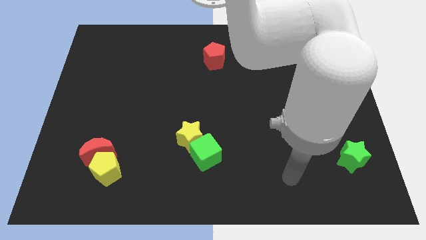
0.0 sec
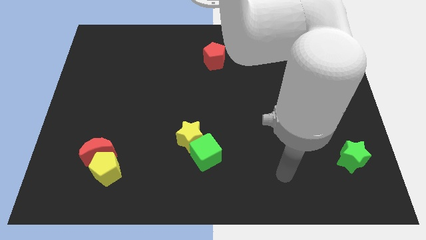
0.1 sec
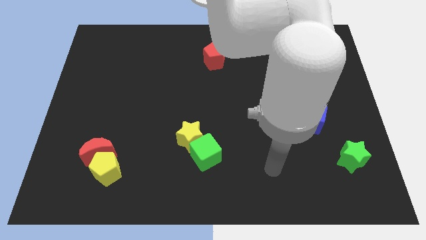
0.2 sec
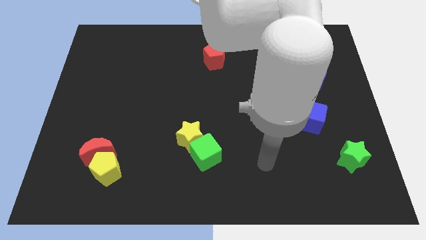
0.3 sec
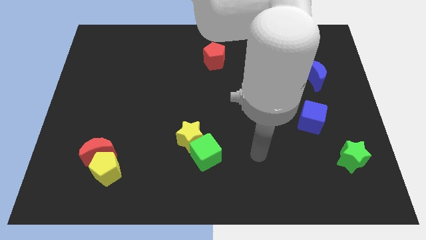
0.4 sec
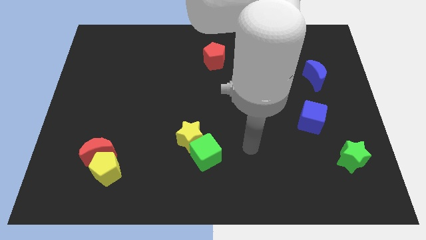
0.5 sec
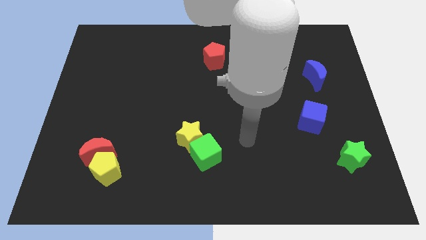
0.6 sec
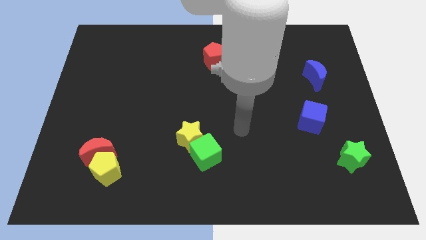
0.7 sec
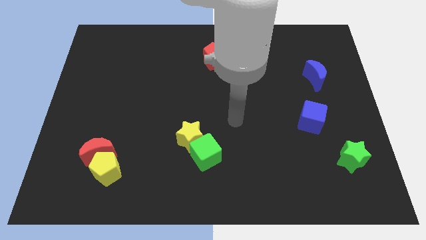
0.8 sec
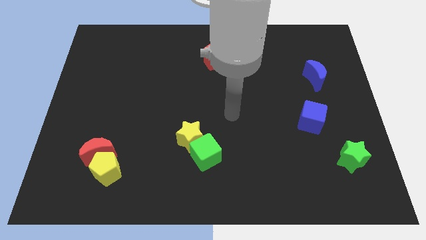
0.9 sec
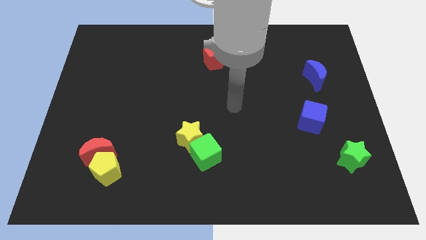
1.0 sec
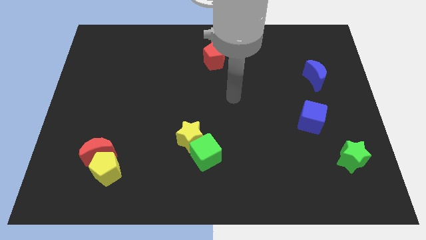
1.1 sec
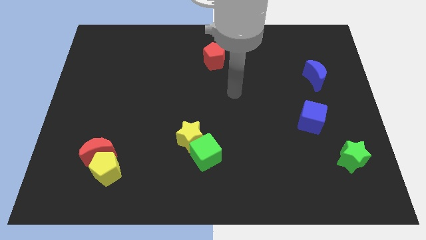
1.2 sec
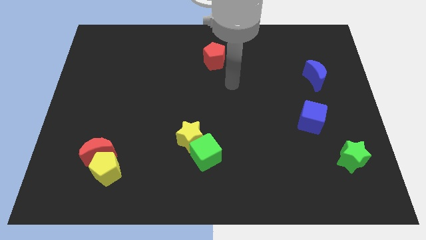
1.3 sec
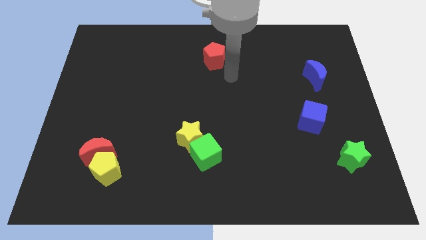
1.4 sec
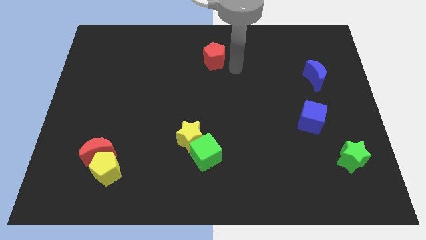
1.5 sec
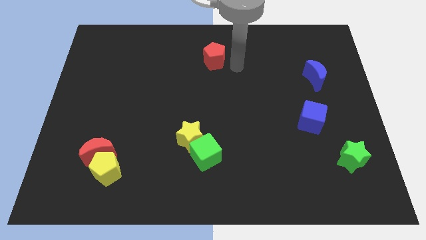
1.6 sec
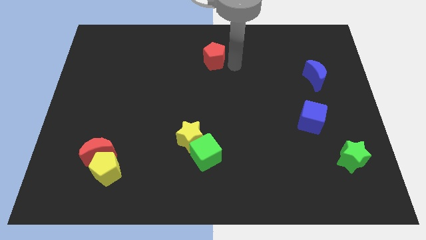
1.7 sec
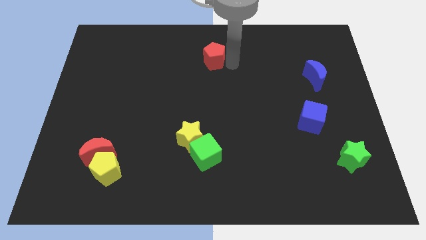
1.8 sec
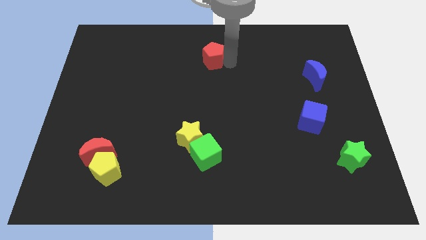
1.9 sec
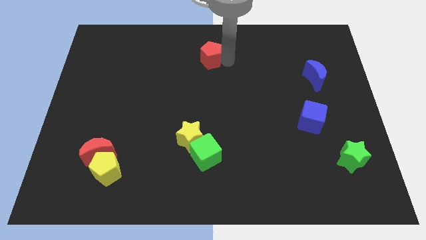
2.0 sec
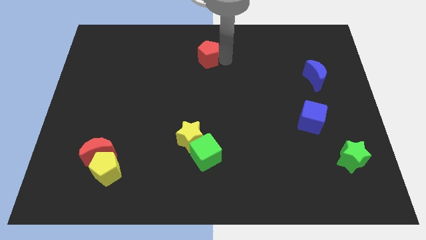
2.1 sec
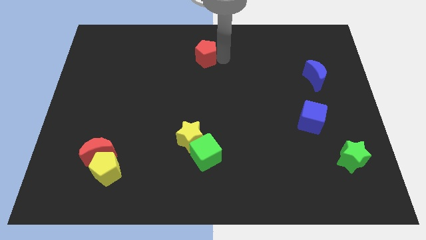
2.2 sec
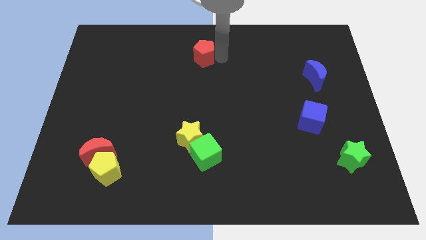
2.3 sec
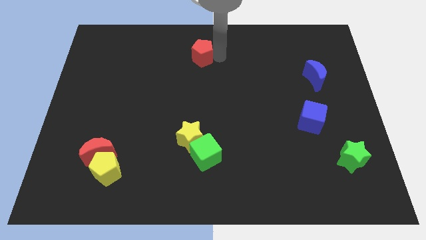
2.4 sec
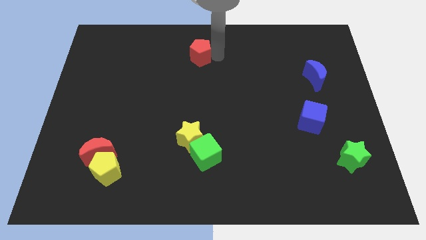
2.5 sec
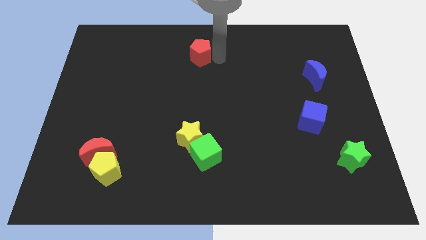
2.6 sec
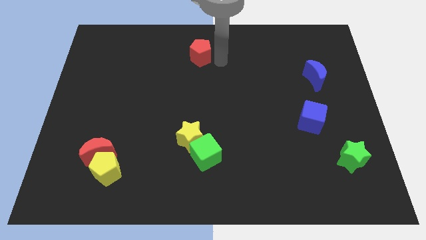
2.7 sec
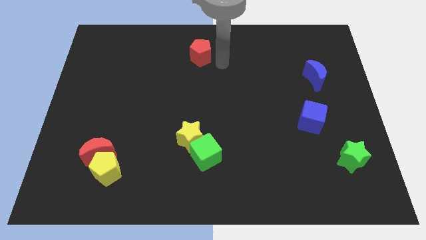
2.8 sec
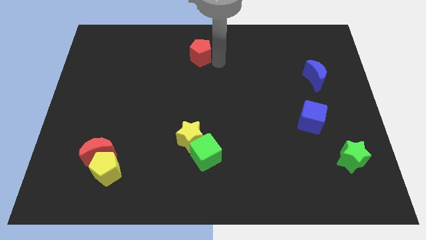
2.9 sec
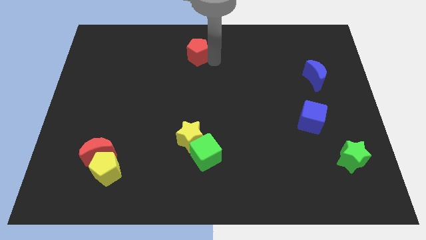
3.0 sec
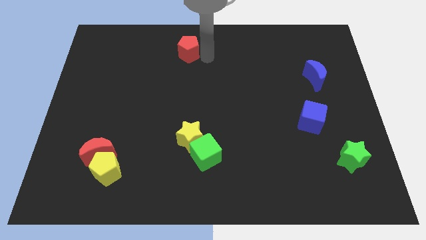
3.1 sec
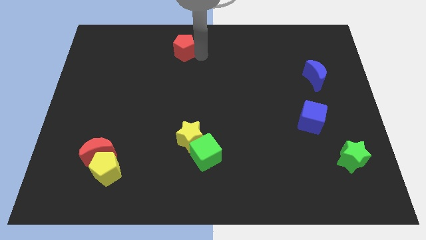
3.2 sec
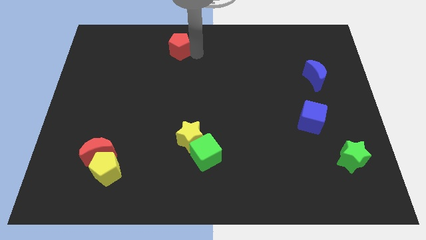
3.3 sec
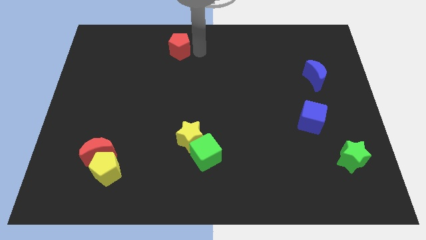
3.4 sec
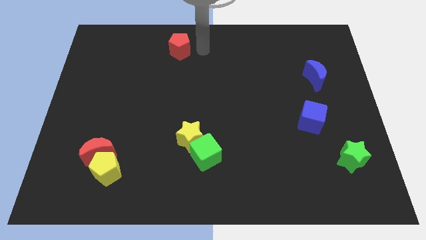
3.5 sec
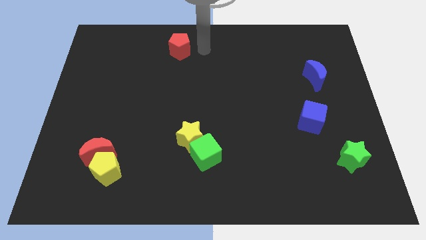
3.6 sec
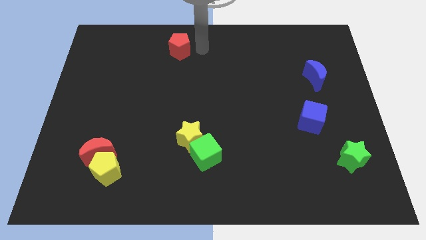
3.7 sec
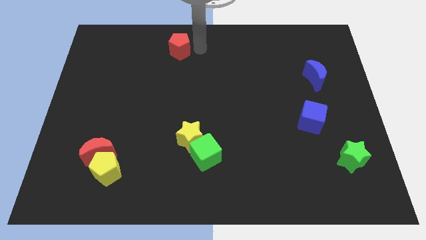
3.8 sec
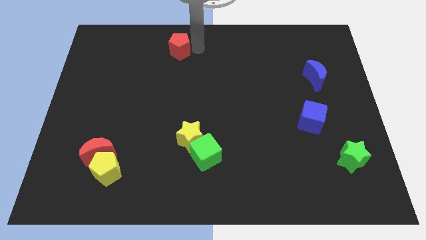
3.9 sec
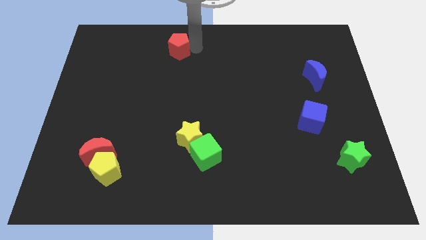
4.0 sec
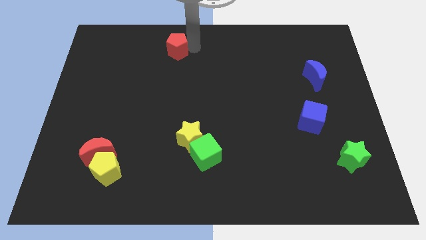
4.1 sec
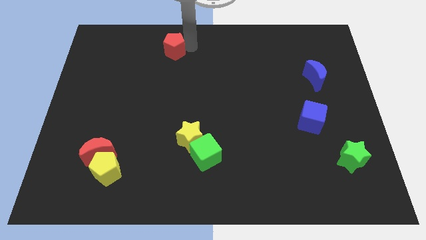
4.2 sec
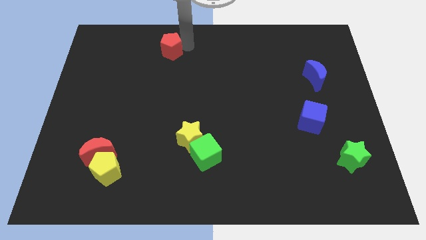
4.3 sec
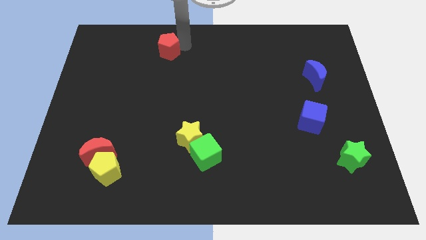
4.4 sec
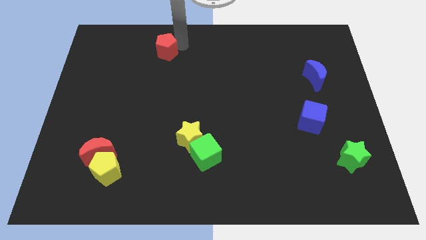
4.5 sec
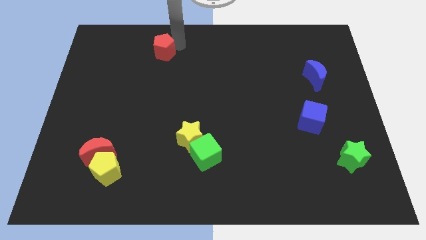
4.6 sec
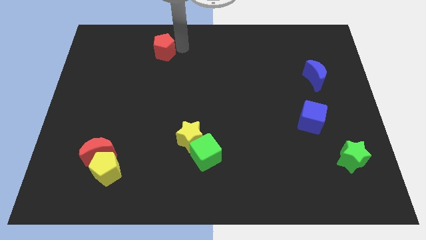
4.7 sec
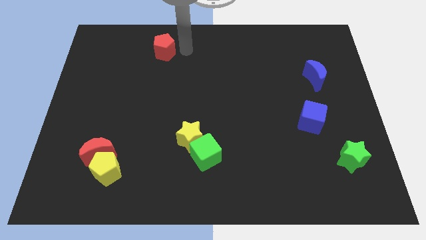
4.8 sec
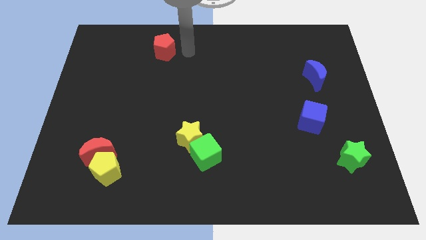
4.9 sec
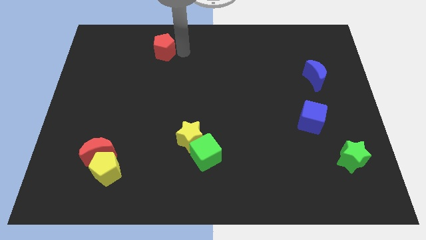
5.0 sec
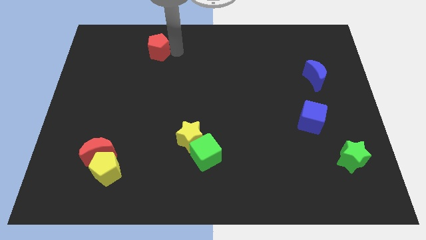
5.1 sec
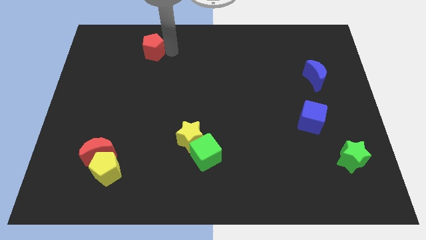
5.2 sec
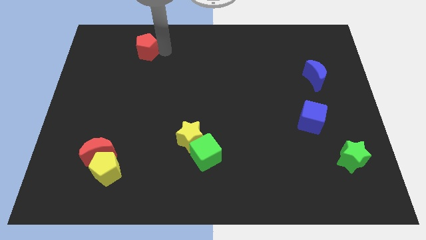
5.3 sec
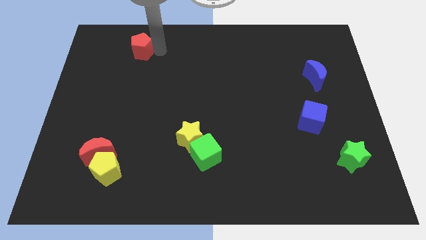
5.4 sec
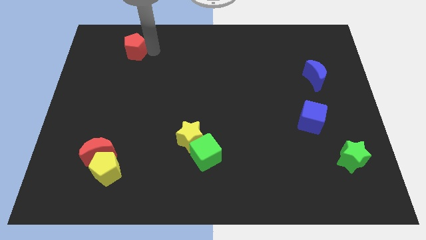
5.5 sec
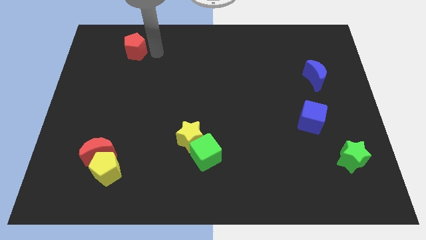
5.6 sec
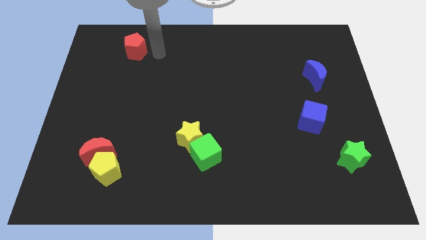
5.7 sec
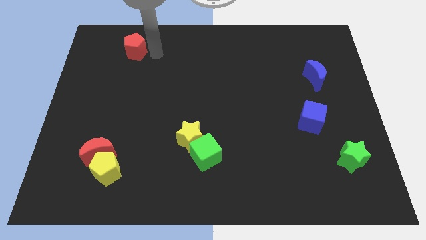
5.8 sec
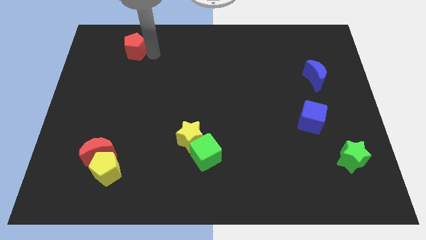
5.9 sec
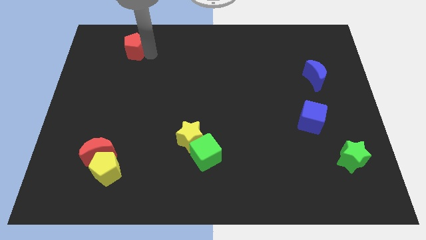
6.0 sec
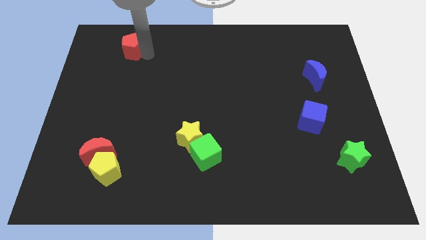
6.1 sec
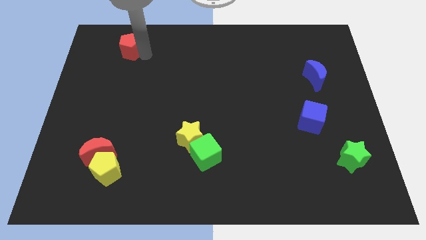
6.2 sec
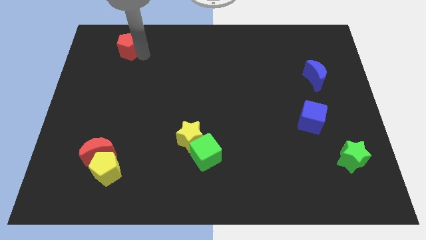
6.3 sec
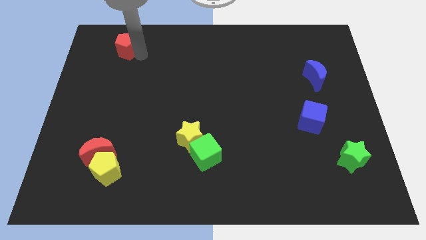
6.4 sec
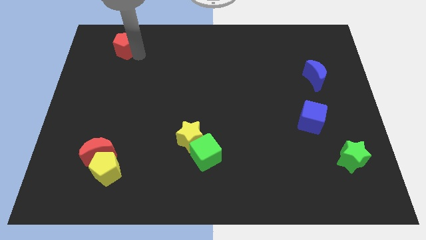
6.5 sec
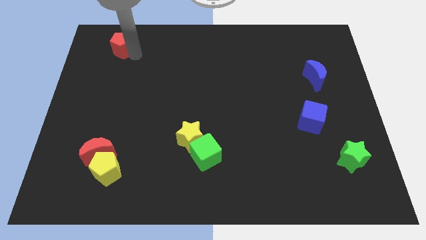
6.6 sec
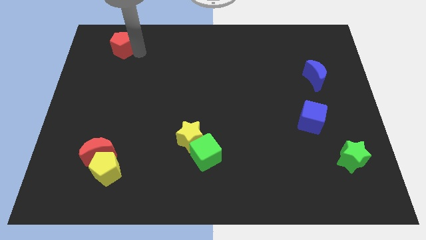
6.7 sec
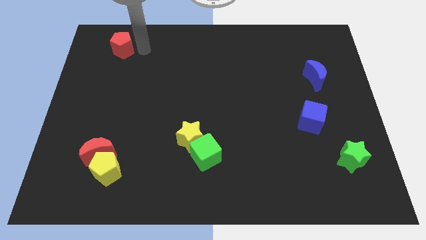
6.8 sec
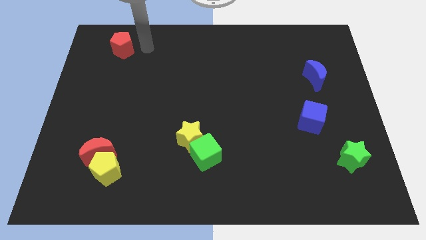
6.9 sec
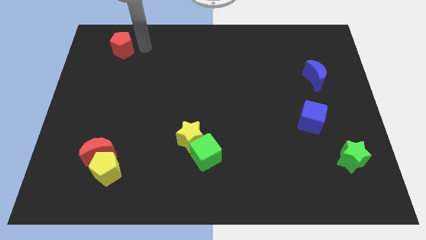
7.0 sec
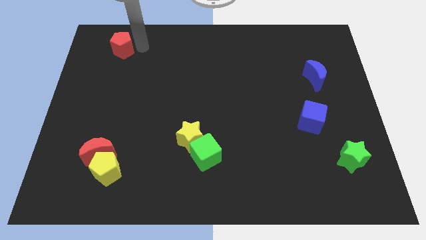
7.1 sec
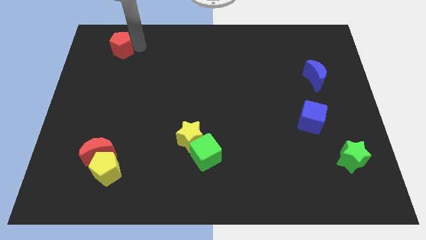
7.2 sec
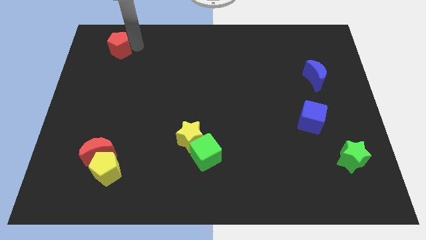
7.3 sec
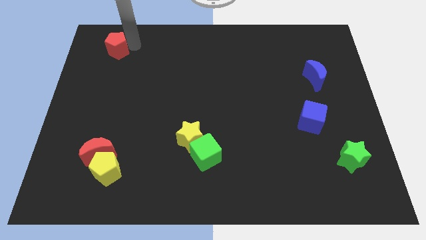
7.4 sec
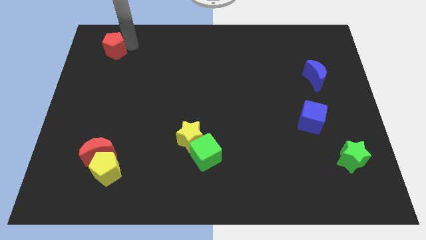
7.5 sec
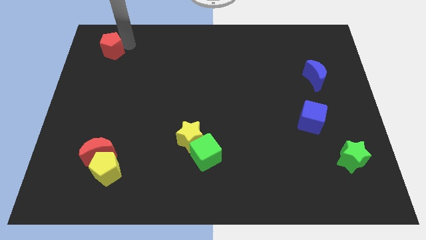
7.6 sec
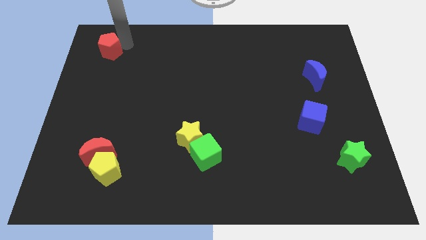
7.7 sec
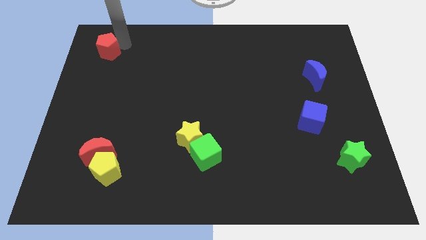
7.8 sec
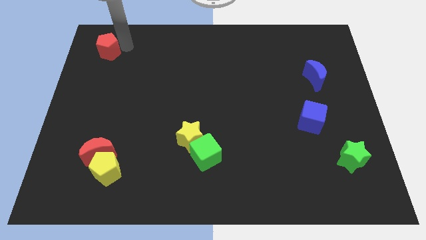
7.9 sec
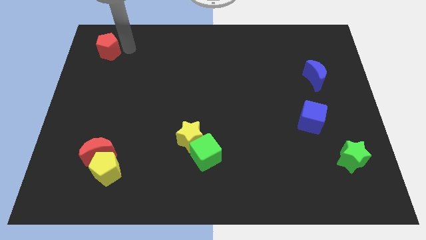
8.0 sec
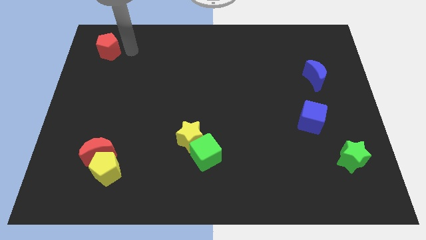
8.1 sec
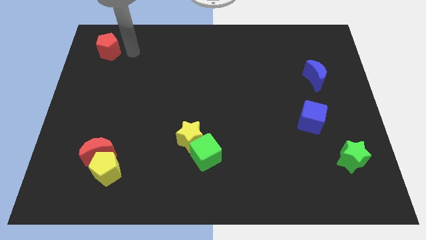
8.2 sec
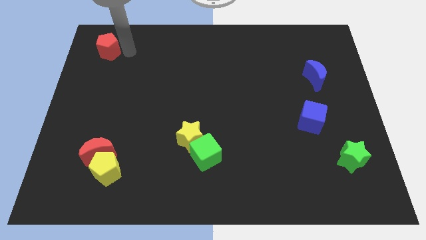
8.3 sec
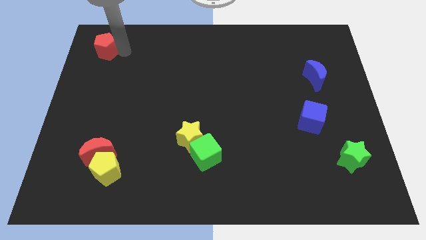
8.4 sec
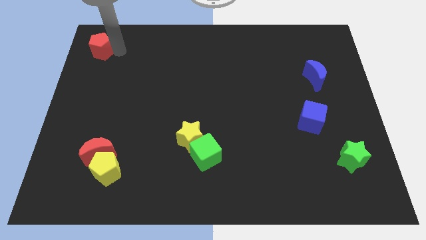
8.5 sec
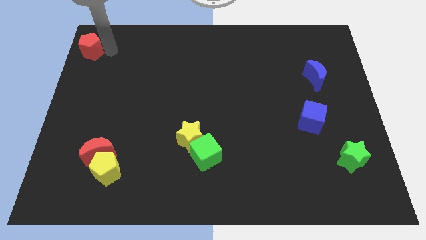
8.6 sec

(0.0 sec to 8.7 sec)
move the red pentagon to the top left
